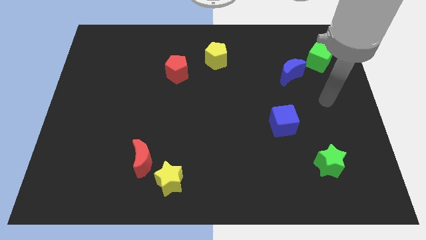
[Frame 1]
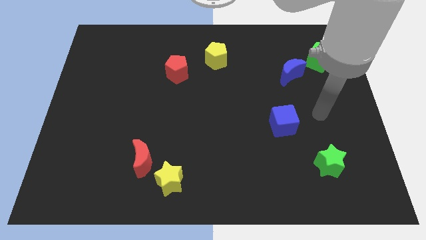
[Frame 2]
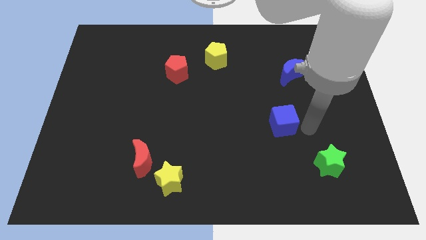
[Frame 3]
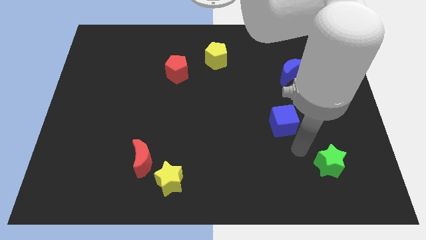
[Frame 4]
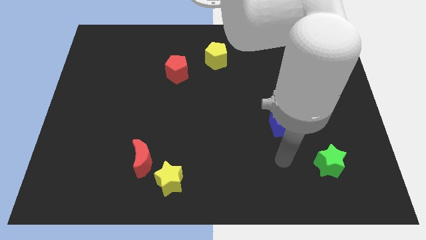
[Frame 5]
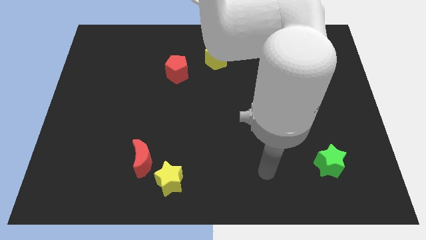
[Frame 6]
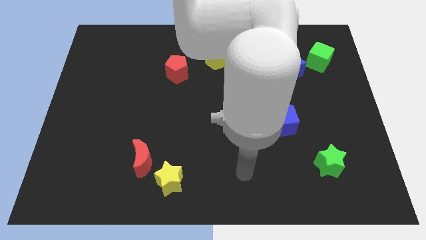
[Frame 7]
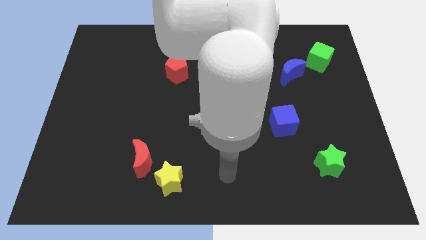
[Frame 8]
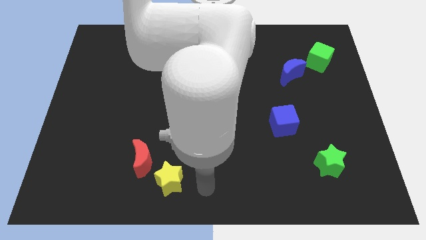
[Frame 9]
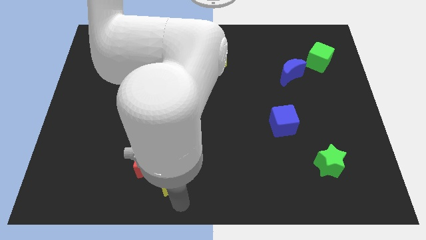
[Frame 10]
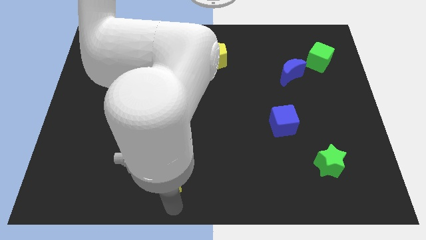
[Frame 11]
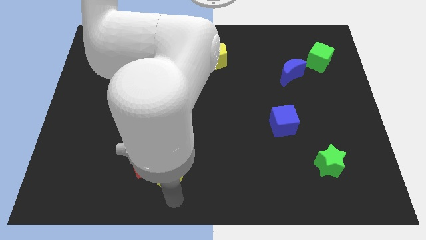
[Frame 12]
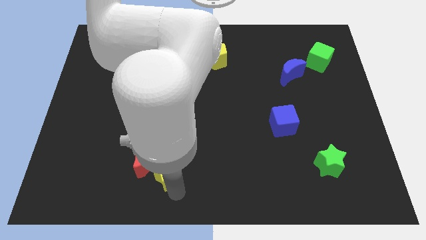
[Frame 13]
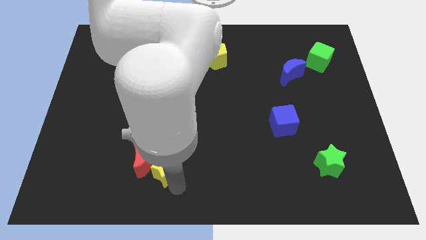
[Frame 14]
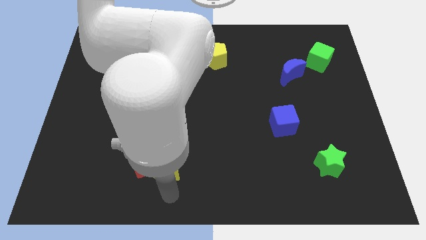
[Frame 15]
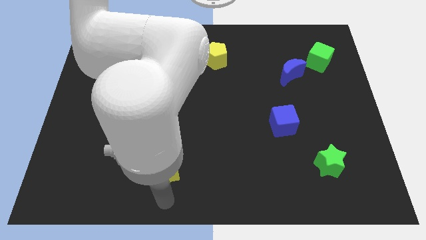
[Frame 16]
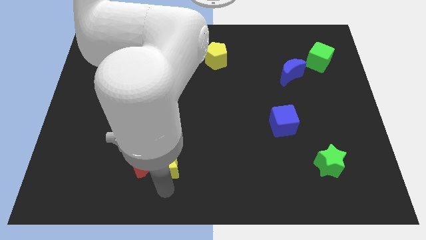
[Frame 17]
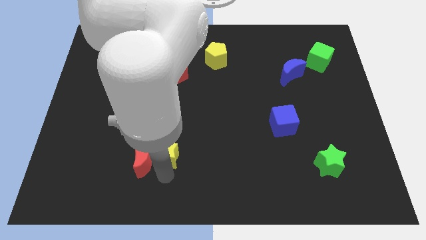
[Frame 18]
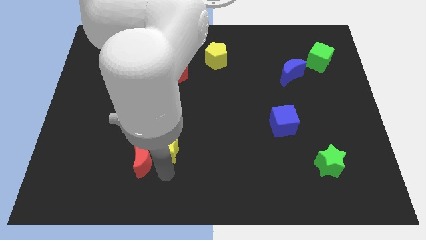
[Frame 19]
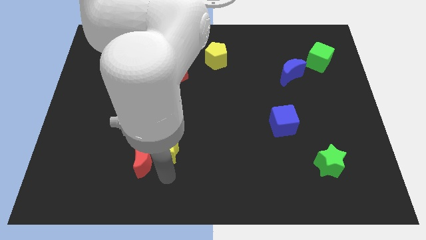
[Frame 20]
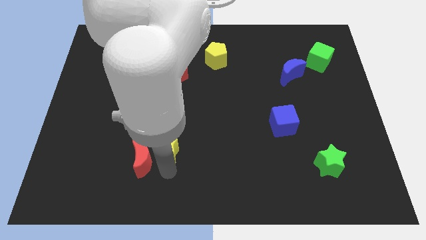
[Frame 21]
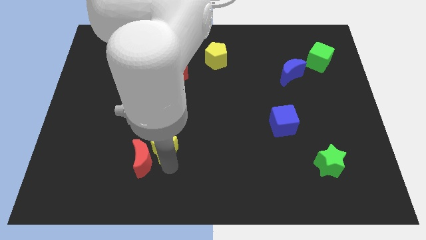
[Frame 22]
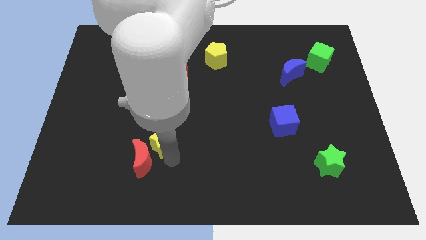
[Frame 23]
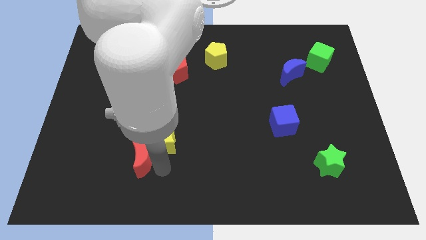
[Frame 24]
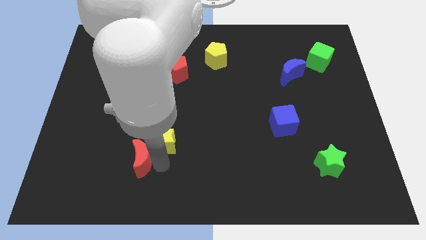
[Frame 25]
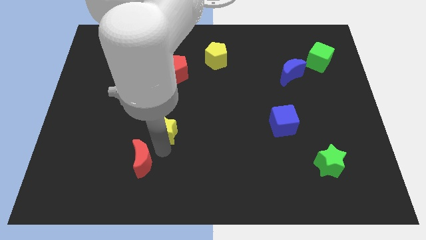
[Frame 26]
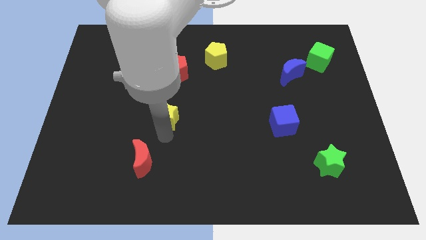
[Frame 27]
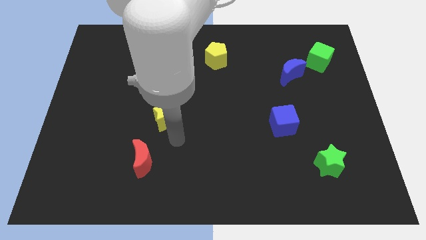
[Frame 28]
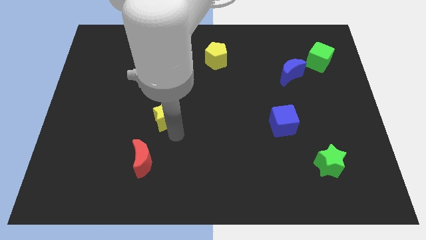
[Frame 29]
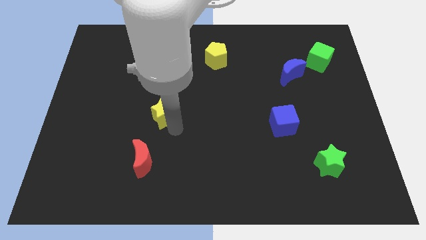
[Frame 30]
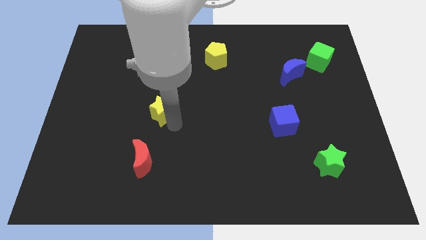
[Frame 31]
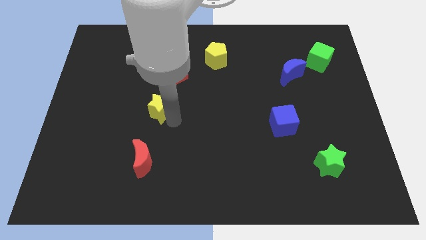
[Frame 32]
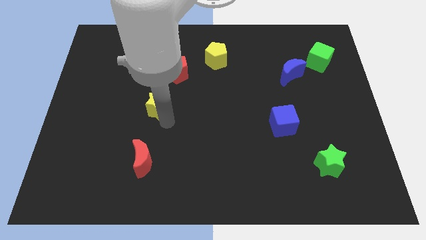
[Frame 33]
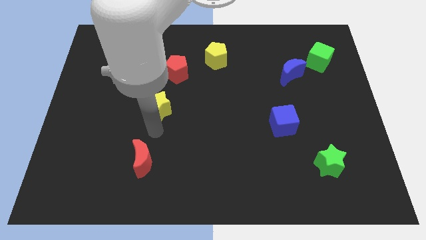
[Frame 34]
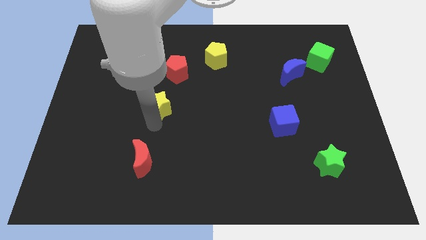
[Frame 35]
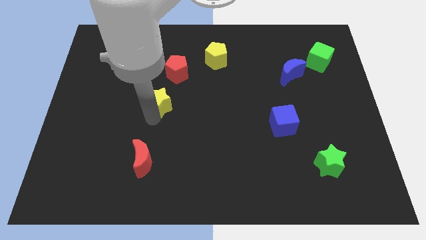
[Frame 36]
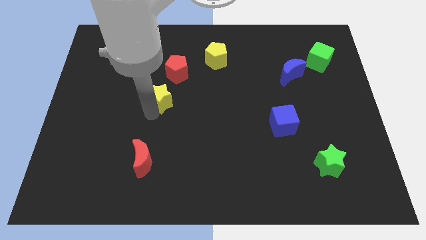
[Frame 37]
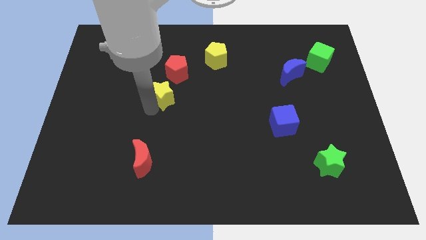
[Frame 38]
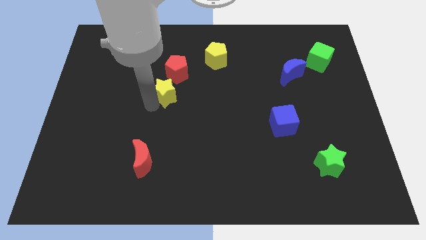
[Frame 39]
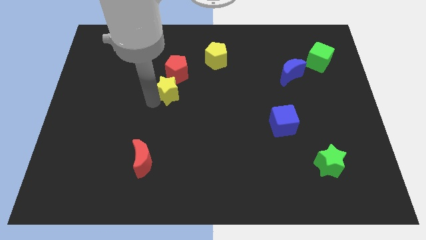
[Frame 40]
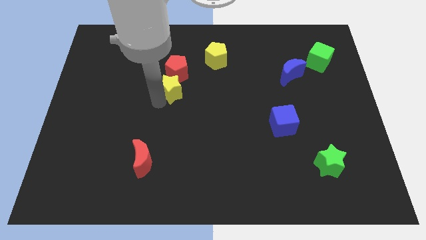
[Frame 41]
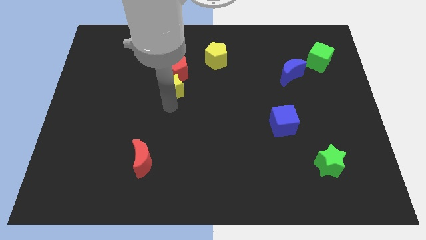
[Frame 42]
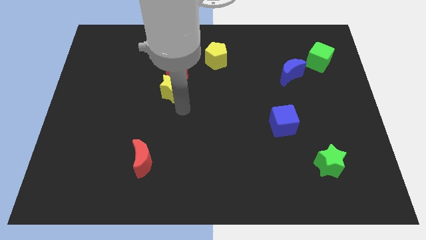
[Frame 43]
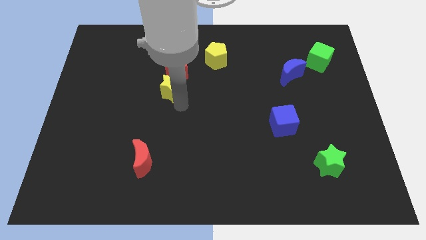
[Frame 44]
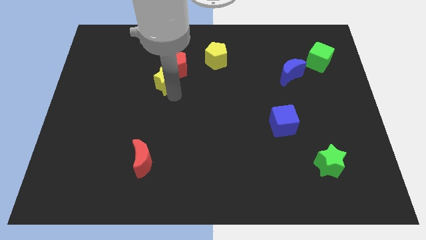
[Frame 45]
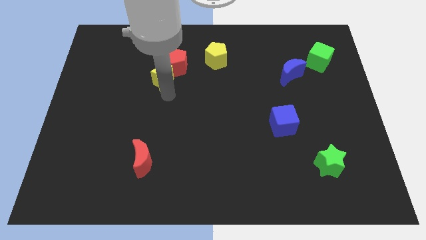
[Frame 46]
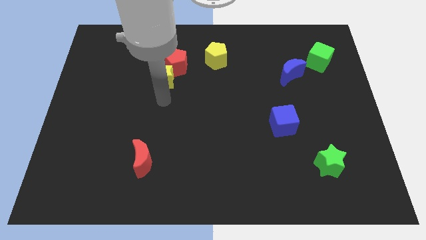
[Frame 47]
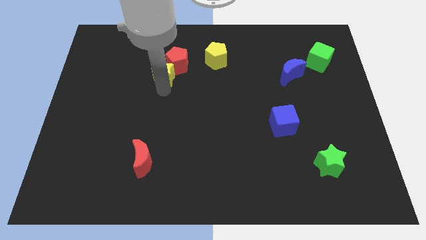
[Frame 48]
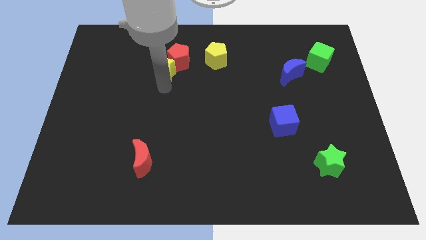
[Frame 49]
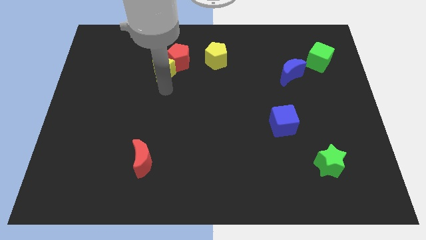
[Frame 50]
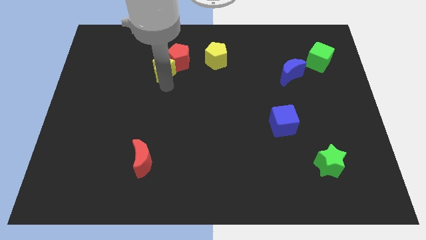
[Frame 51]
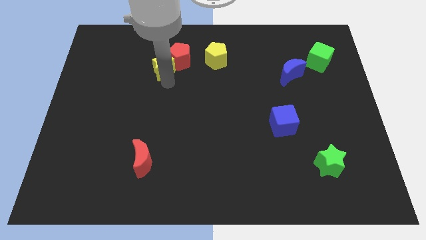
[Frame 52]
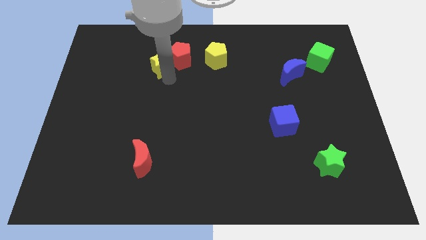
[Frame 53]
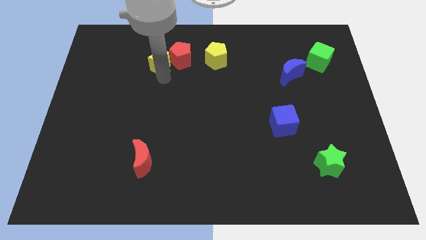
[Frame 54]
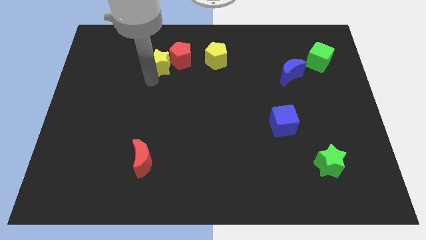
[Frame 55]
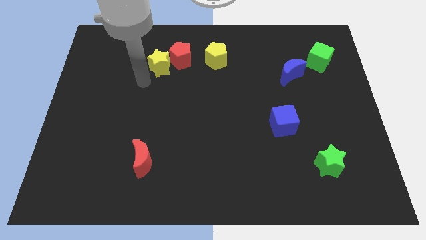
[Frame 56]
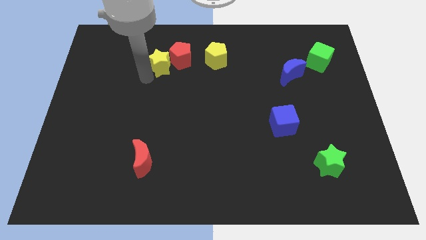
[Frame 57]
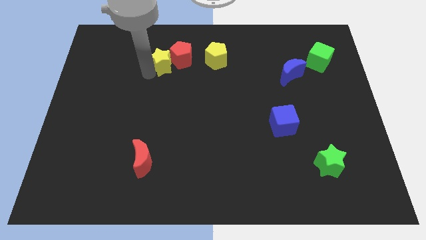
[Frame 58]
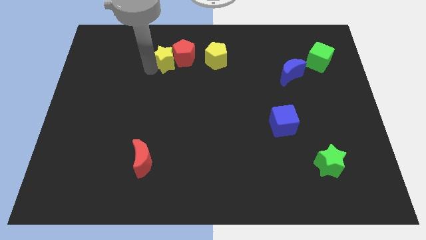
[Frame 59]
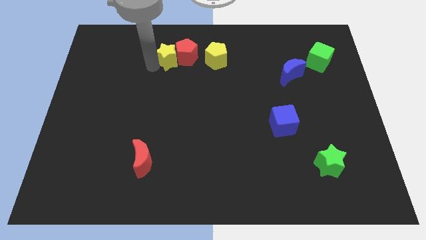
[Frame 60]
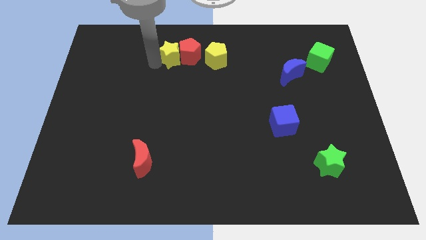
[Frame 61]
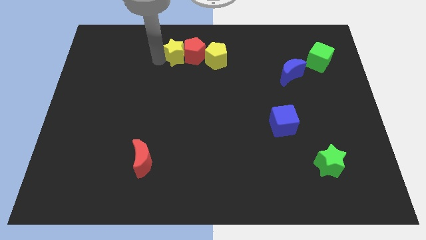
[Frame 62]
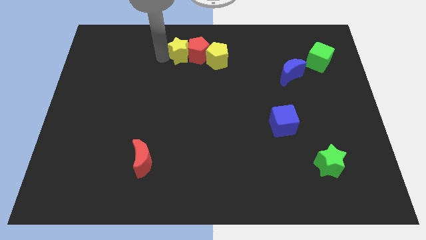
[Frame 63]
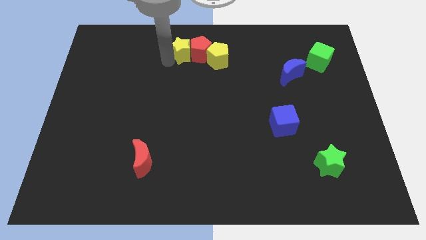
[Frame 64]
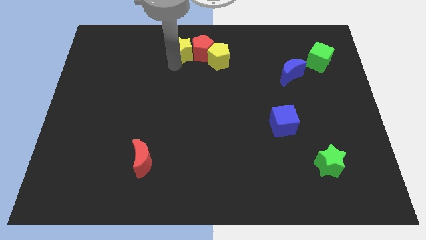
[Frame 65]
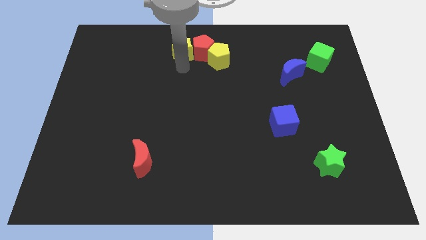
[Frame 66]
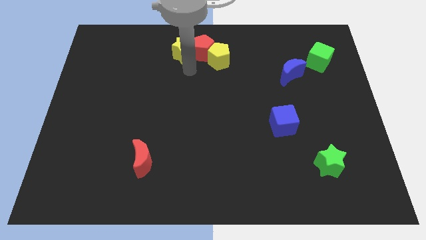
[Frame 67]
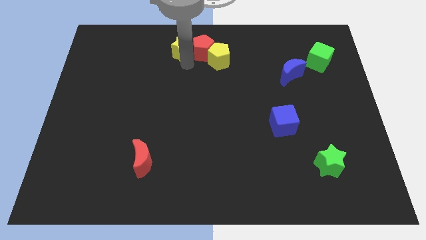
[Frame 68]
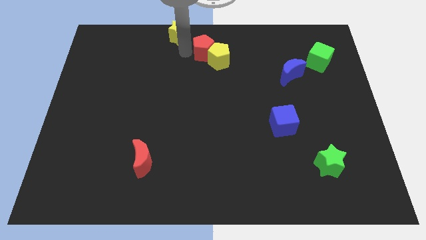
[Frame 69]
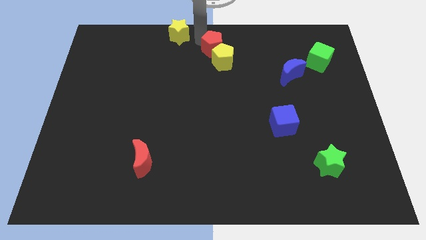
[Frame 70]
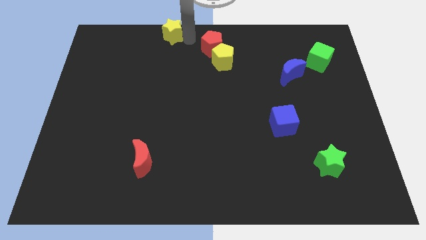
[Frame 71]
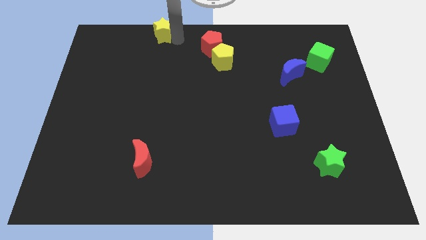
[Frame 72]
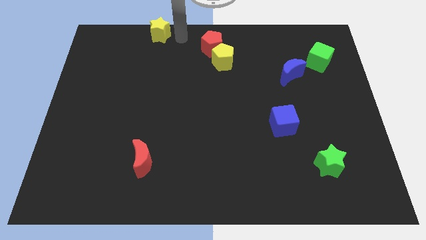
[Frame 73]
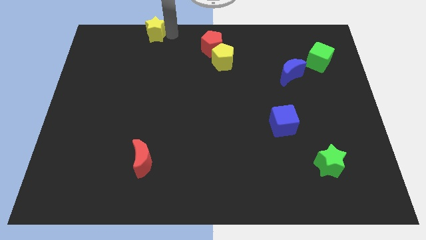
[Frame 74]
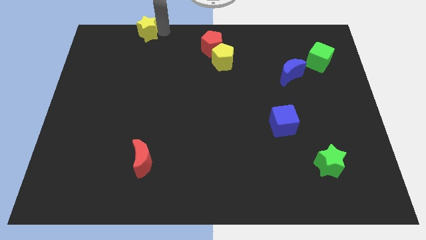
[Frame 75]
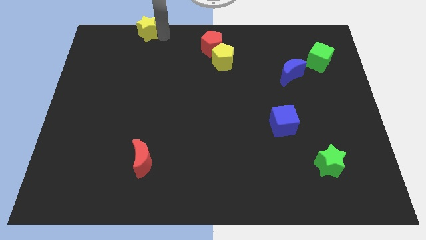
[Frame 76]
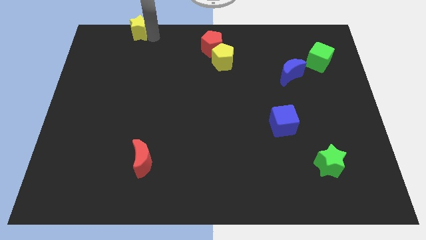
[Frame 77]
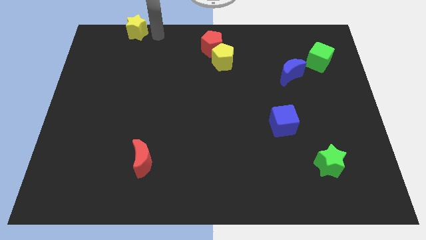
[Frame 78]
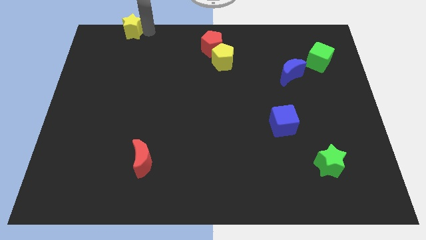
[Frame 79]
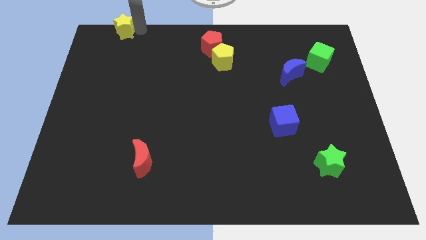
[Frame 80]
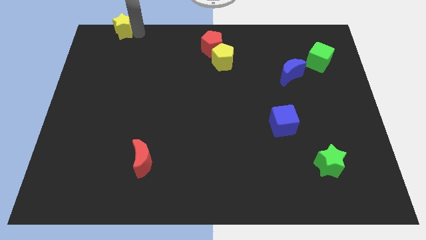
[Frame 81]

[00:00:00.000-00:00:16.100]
put the yellow star to the top left of the board
